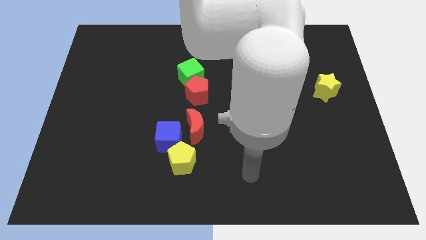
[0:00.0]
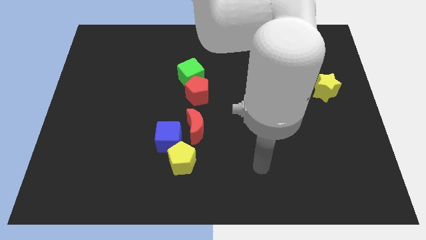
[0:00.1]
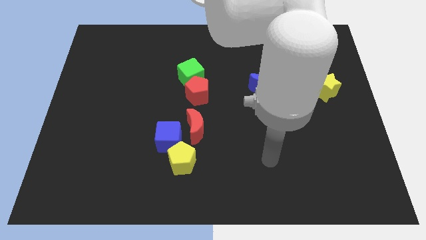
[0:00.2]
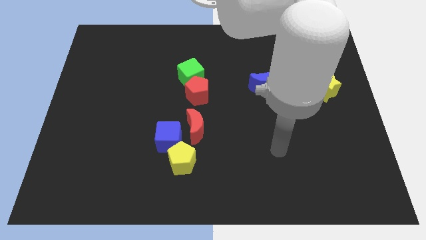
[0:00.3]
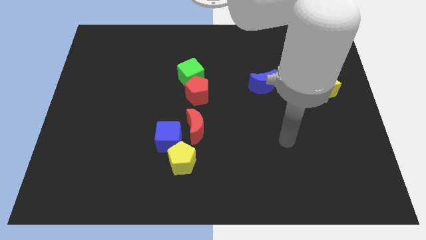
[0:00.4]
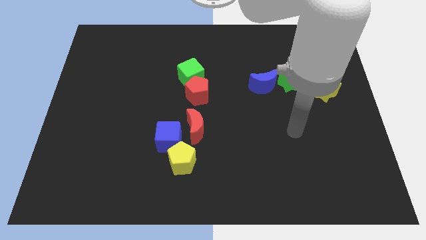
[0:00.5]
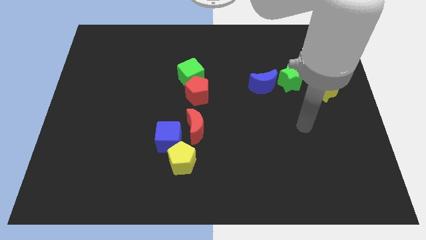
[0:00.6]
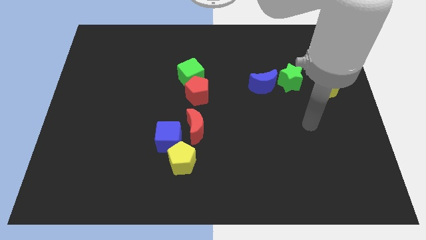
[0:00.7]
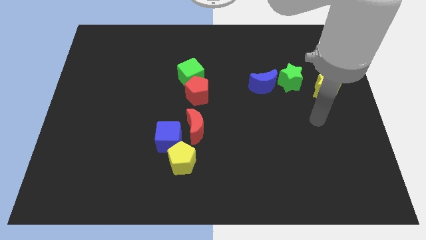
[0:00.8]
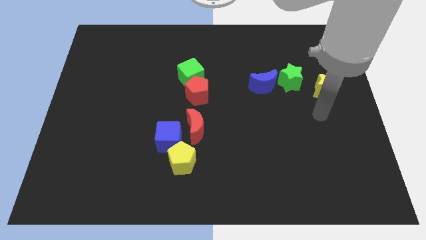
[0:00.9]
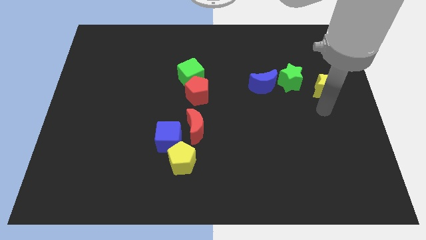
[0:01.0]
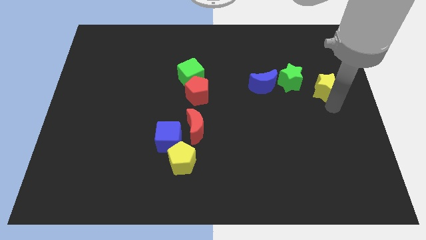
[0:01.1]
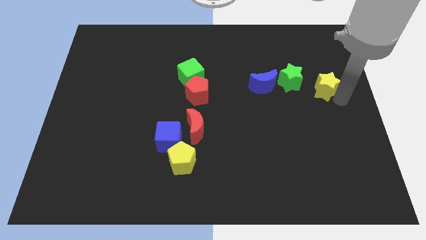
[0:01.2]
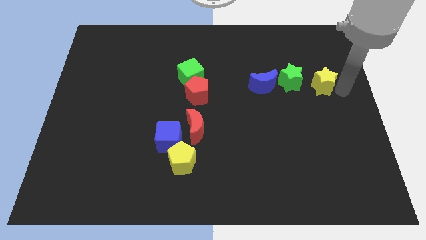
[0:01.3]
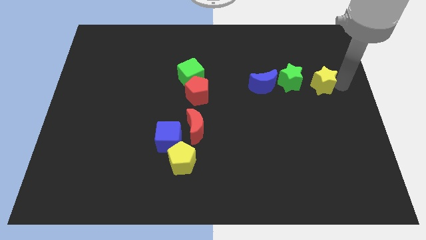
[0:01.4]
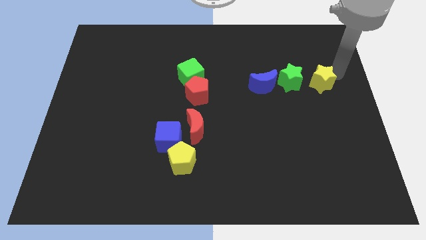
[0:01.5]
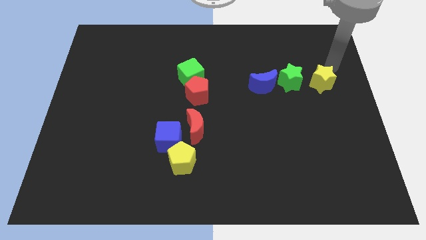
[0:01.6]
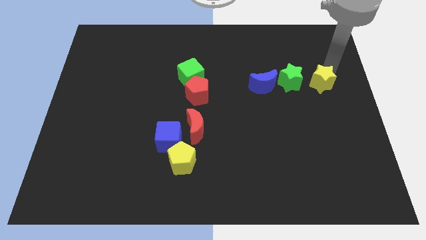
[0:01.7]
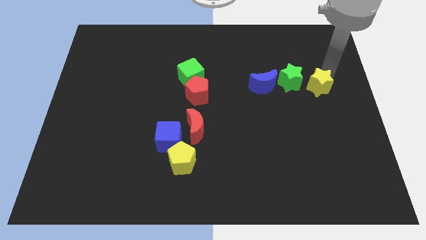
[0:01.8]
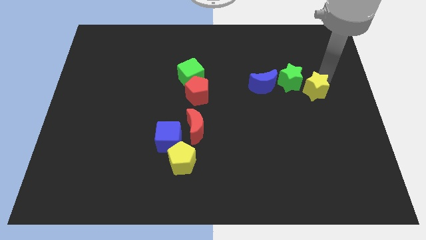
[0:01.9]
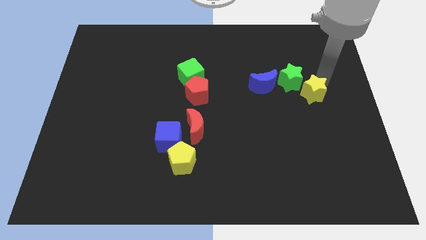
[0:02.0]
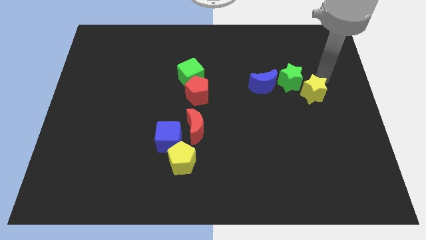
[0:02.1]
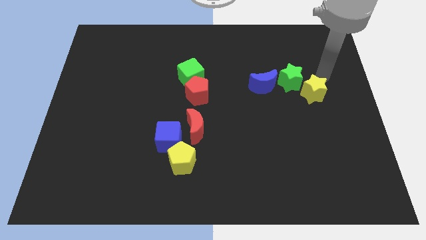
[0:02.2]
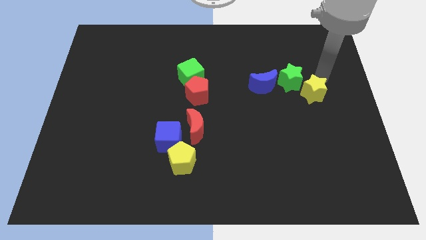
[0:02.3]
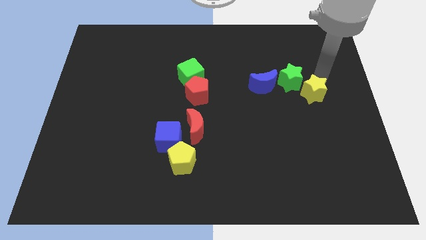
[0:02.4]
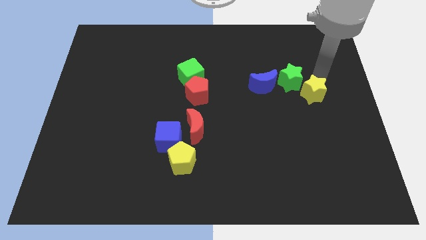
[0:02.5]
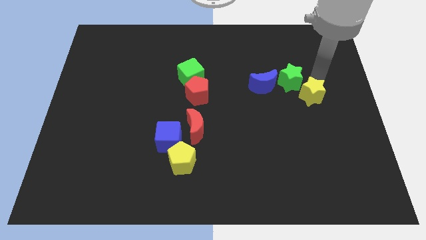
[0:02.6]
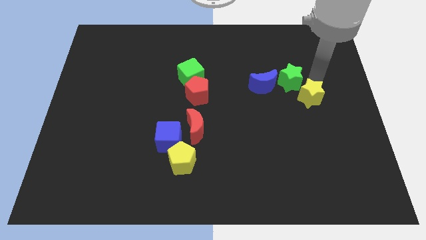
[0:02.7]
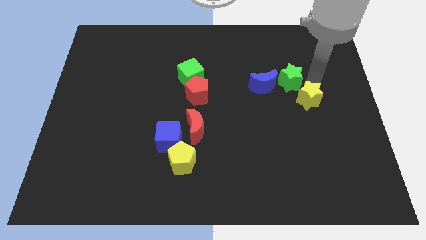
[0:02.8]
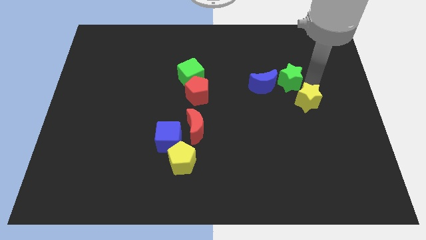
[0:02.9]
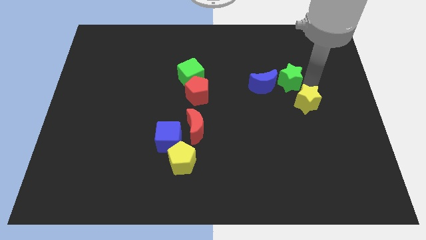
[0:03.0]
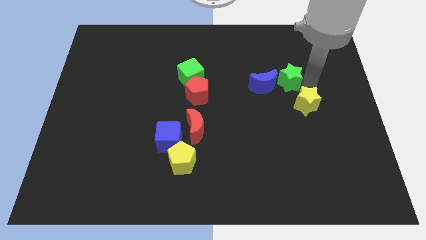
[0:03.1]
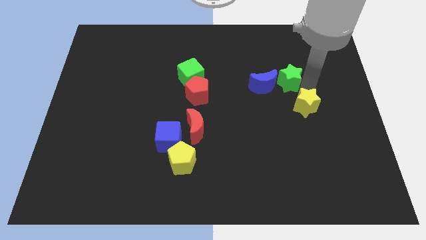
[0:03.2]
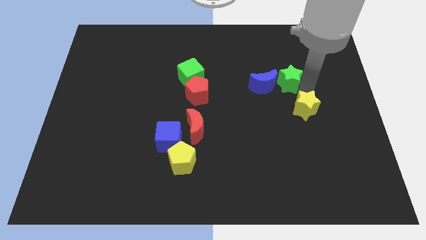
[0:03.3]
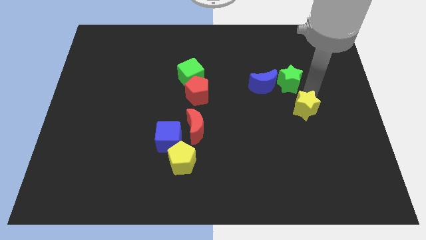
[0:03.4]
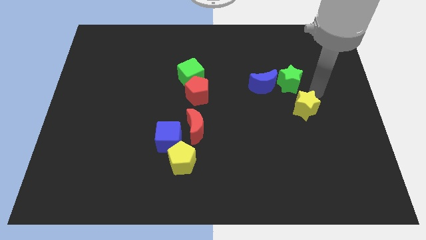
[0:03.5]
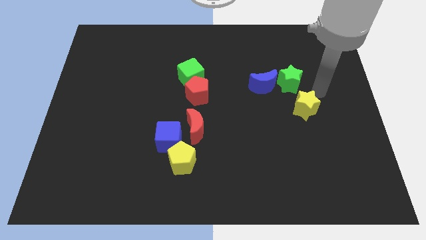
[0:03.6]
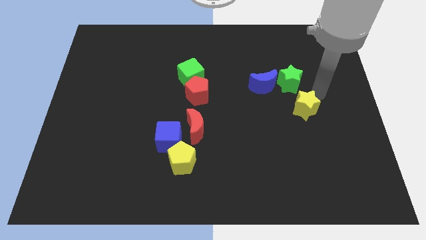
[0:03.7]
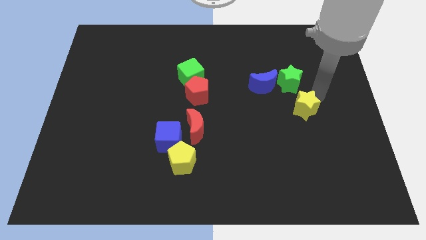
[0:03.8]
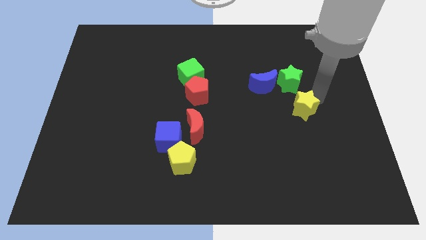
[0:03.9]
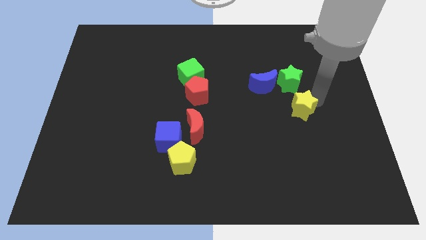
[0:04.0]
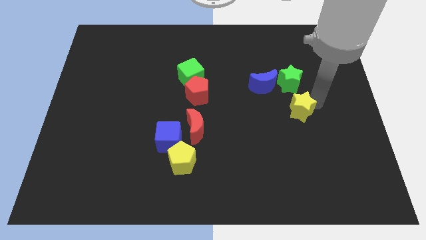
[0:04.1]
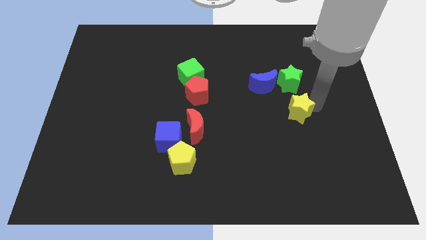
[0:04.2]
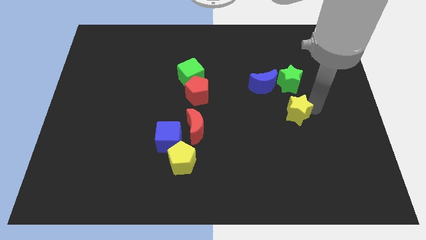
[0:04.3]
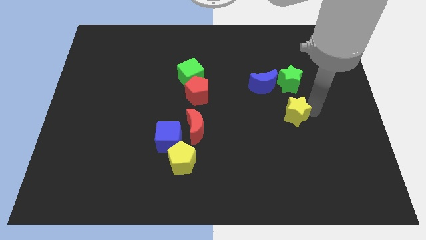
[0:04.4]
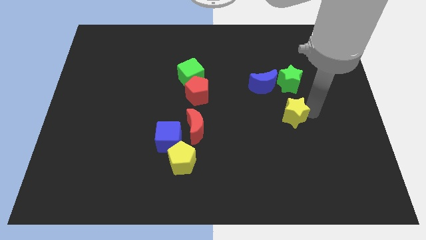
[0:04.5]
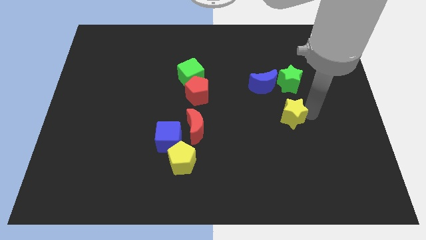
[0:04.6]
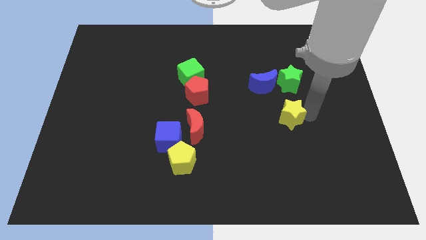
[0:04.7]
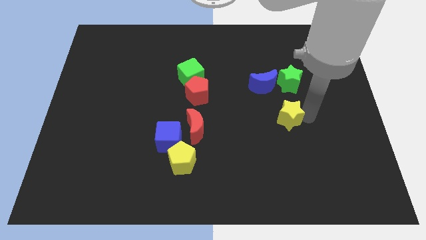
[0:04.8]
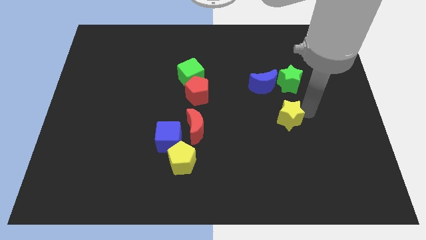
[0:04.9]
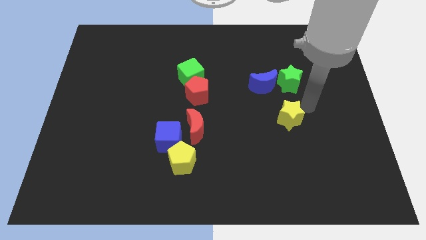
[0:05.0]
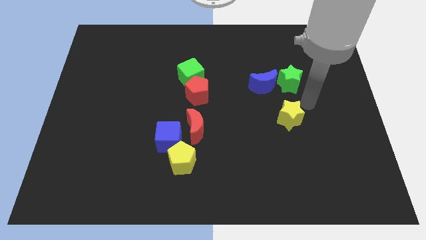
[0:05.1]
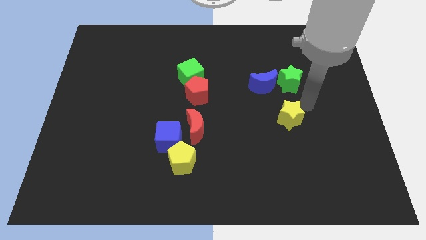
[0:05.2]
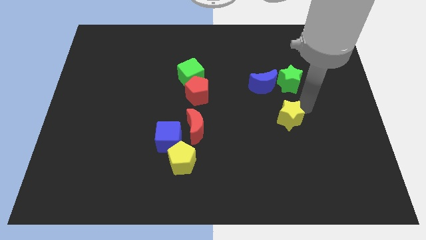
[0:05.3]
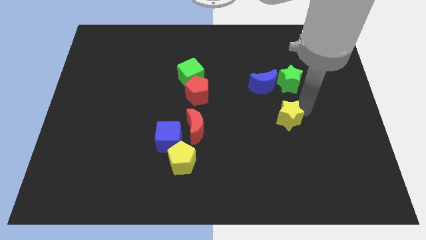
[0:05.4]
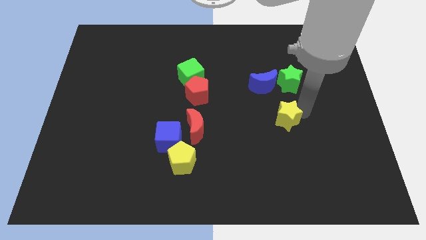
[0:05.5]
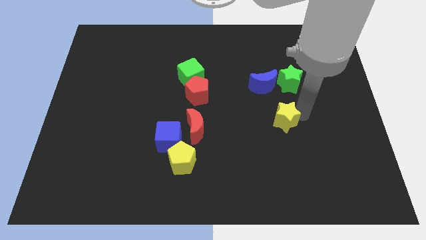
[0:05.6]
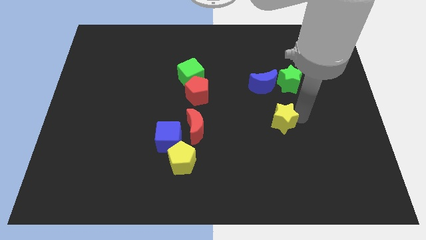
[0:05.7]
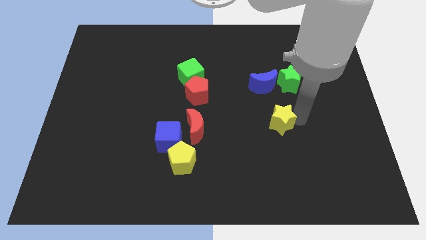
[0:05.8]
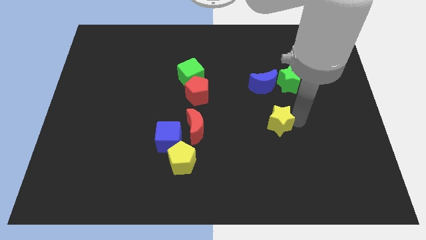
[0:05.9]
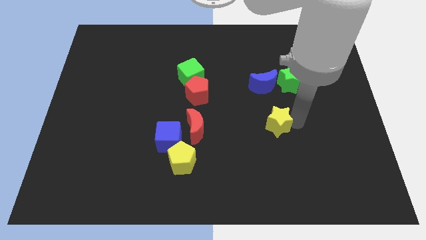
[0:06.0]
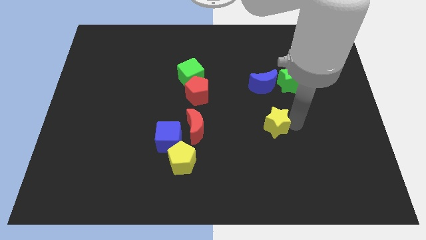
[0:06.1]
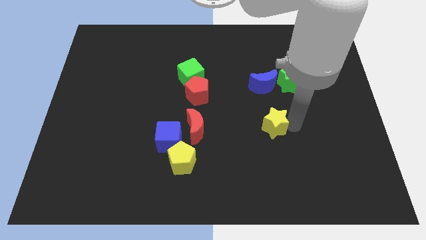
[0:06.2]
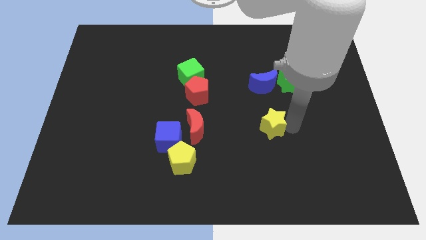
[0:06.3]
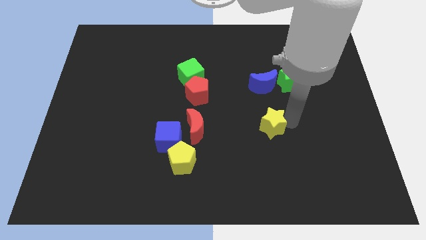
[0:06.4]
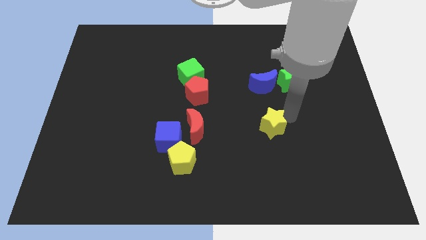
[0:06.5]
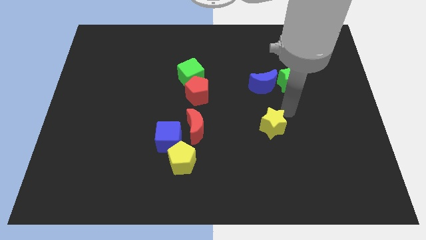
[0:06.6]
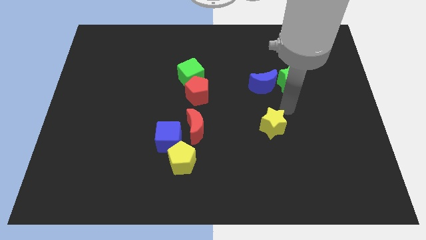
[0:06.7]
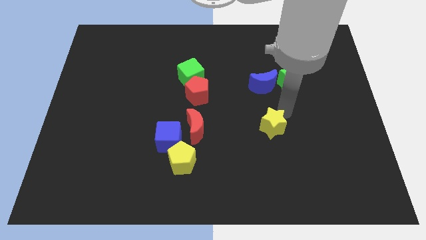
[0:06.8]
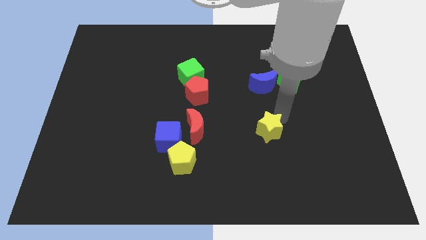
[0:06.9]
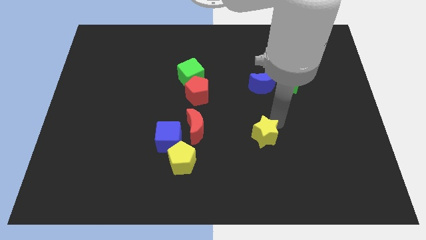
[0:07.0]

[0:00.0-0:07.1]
slide the yellow star down and then left

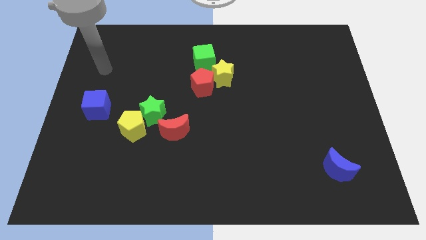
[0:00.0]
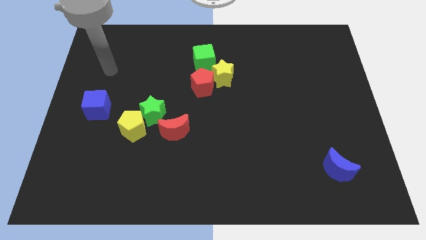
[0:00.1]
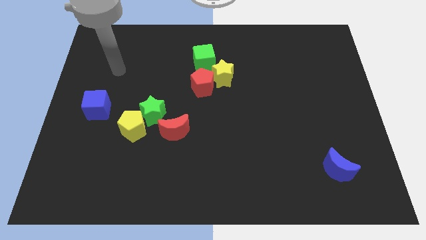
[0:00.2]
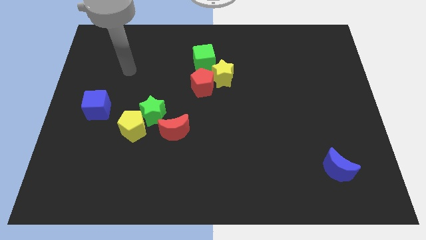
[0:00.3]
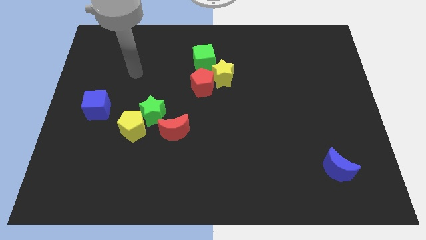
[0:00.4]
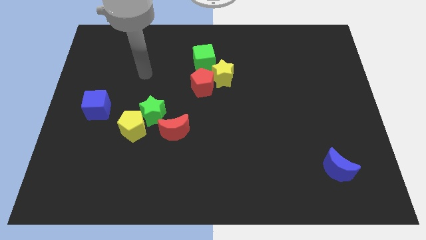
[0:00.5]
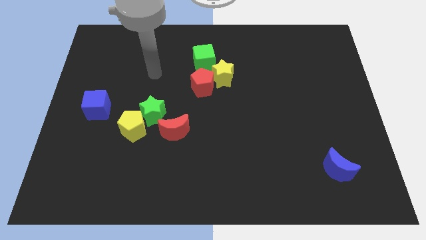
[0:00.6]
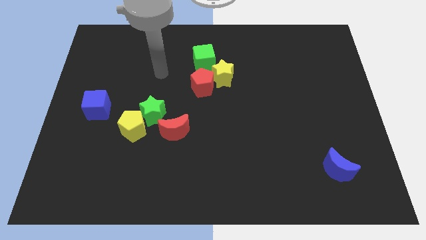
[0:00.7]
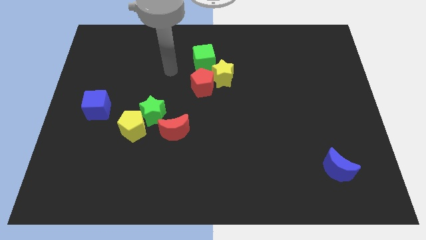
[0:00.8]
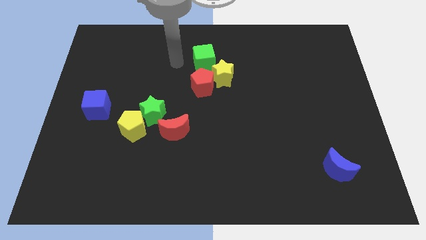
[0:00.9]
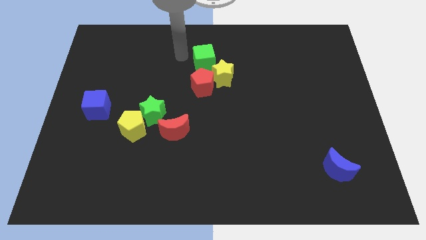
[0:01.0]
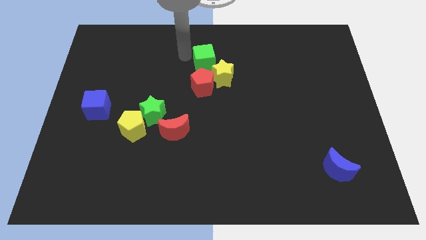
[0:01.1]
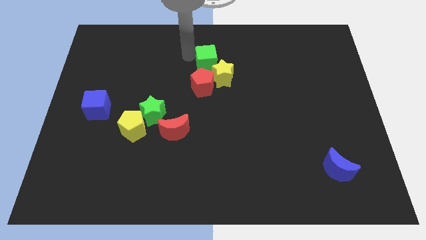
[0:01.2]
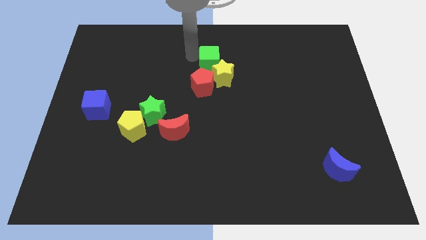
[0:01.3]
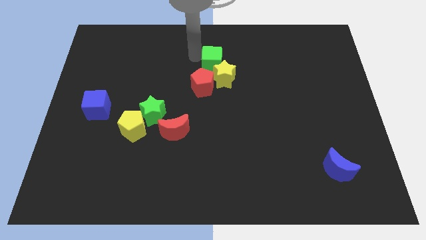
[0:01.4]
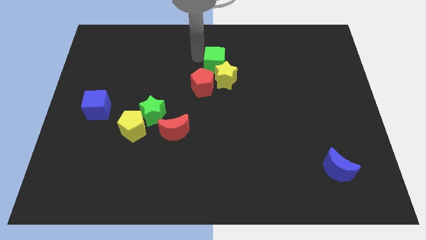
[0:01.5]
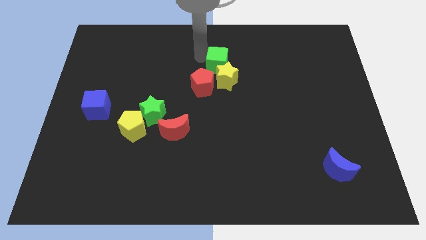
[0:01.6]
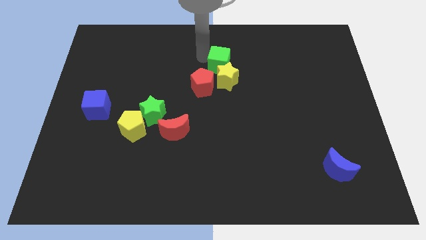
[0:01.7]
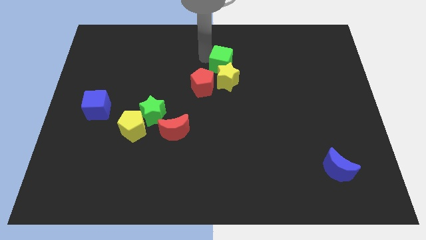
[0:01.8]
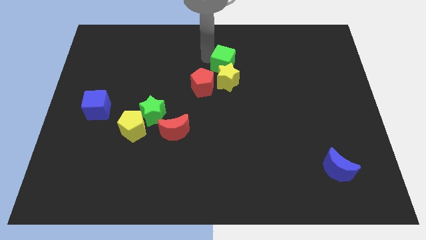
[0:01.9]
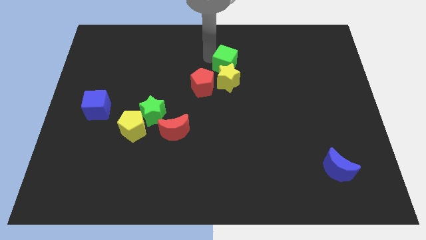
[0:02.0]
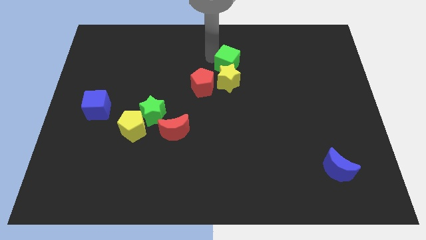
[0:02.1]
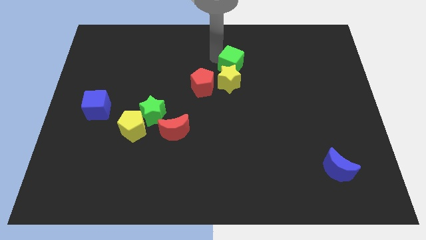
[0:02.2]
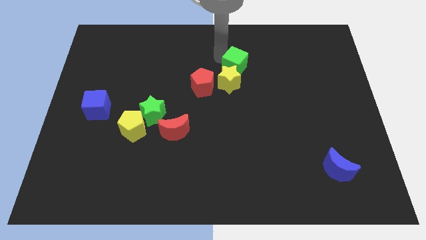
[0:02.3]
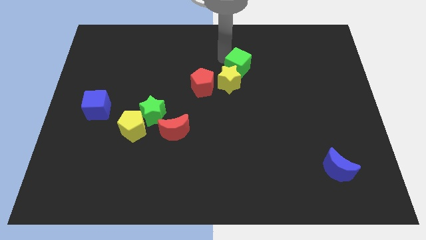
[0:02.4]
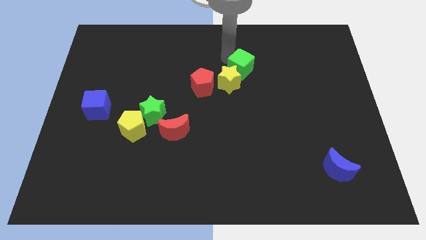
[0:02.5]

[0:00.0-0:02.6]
move the green cube a little down and to the right diagonally
